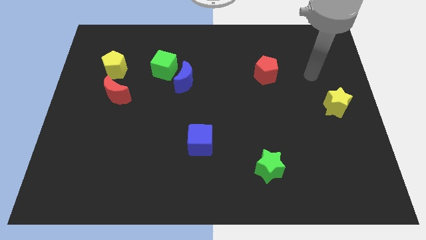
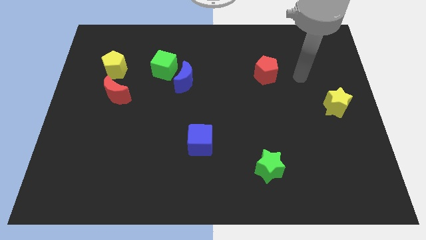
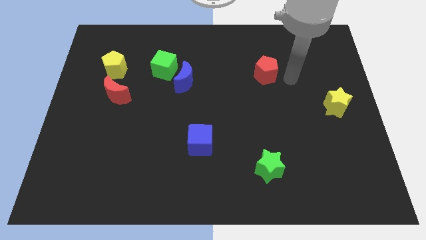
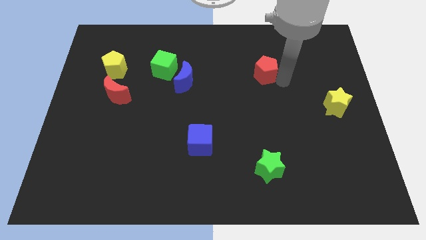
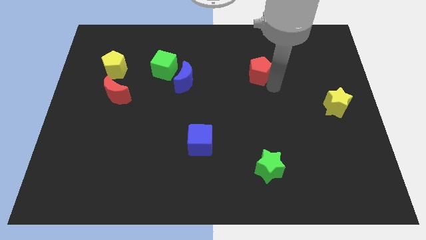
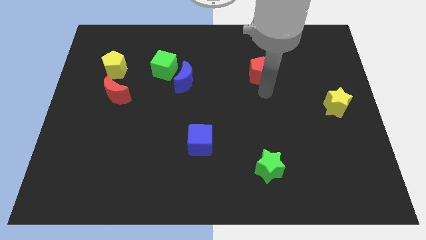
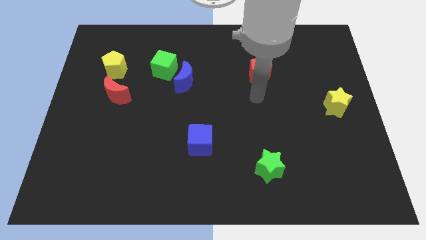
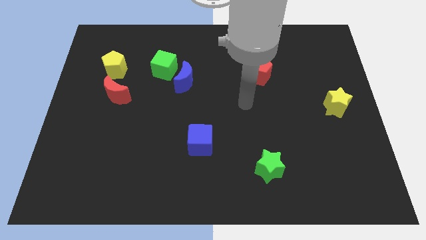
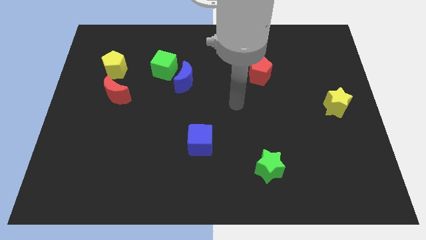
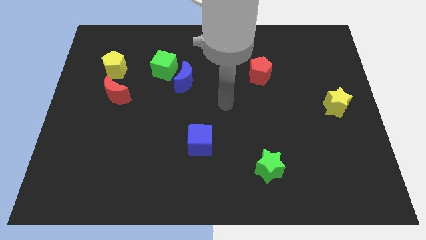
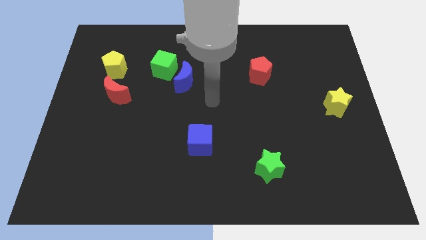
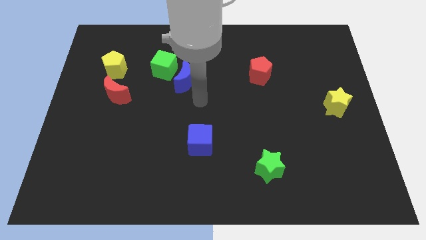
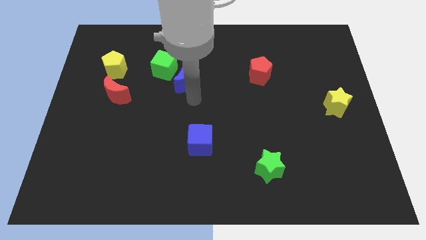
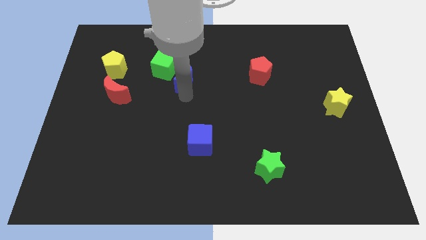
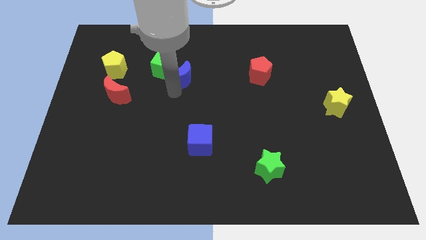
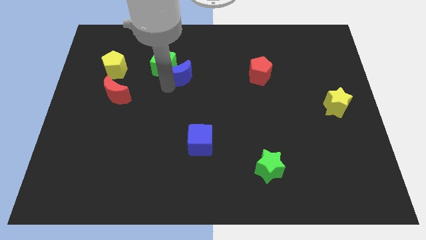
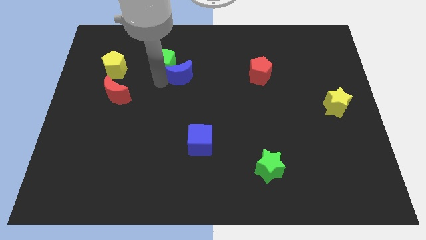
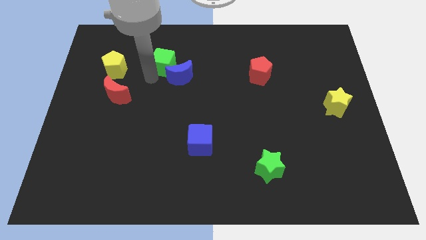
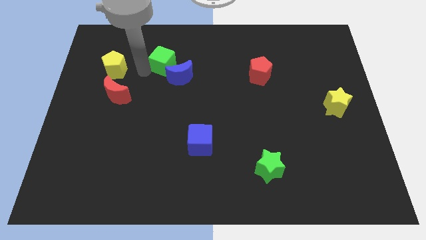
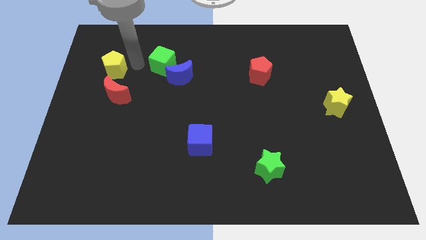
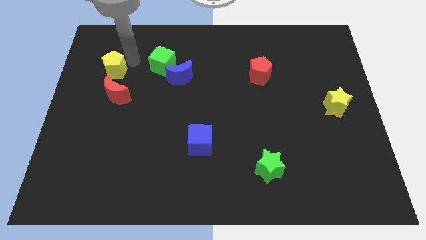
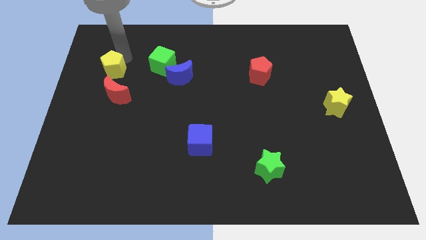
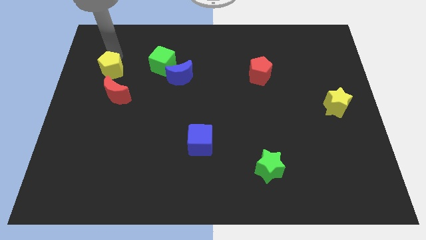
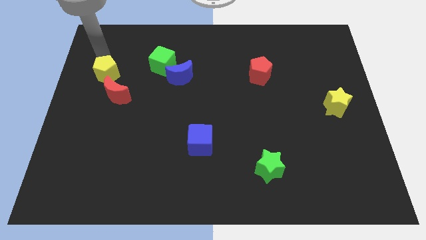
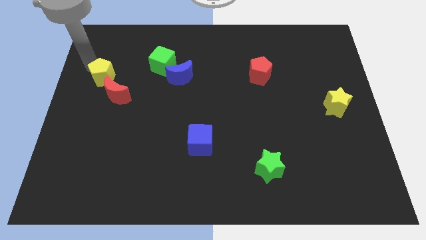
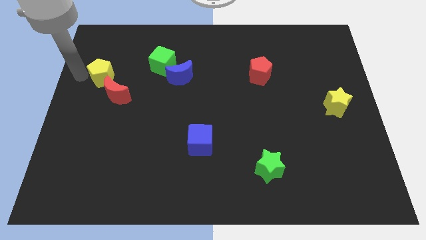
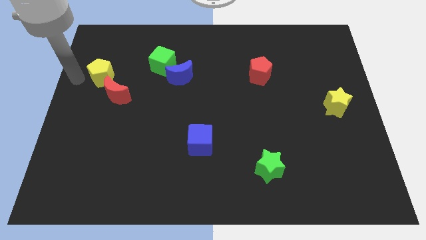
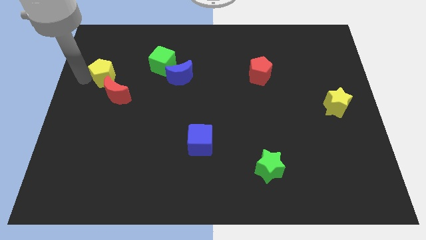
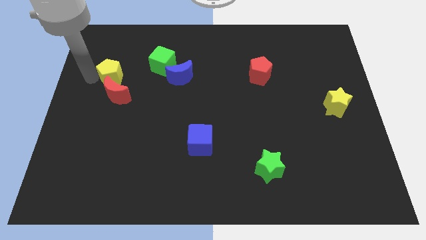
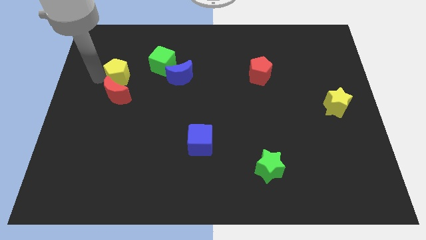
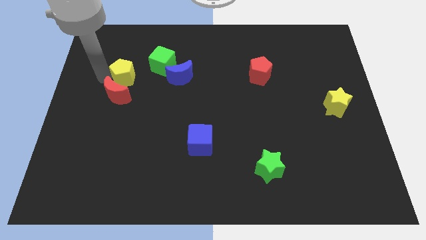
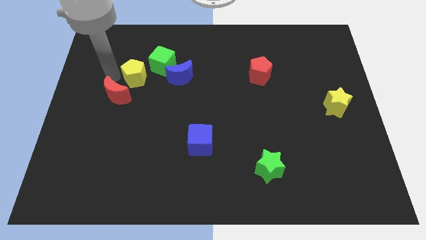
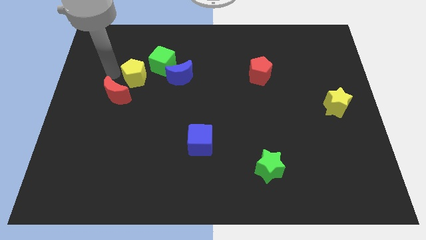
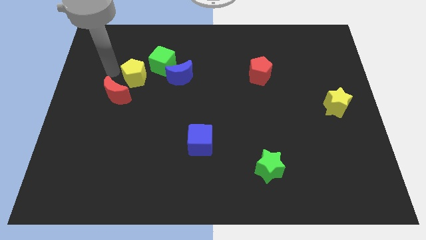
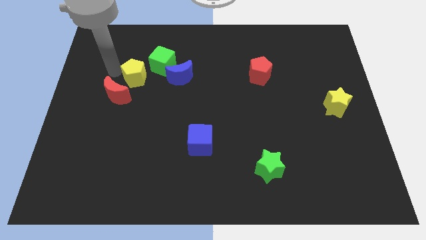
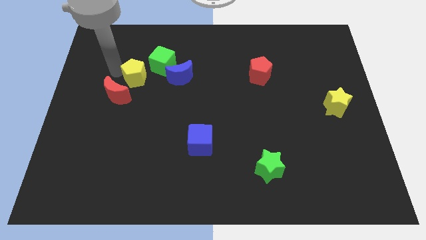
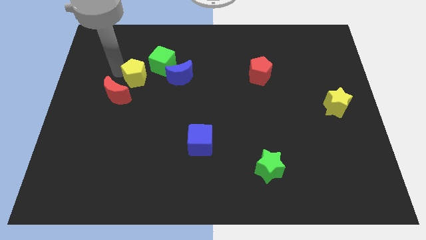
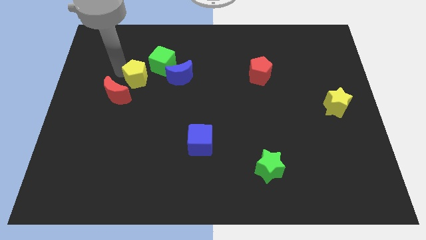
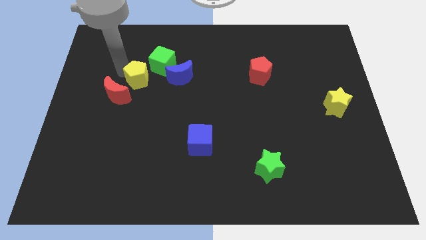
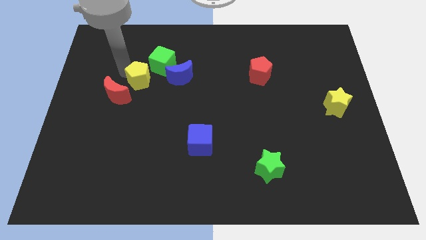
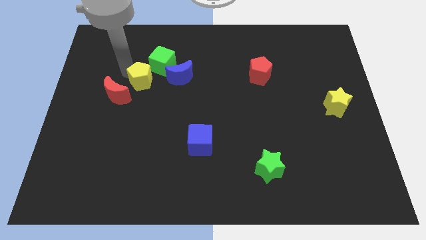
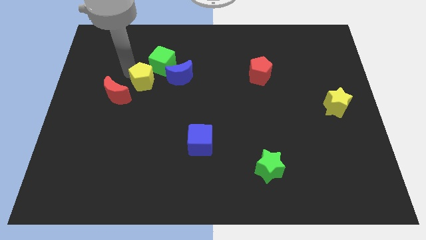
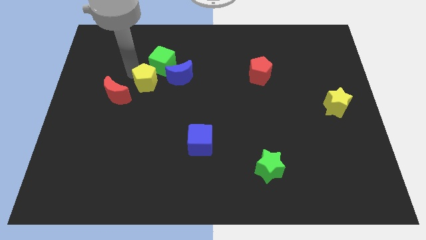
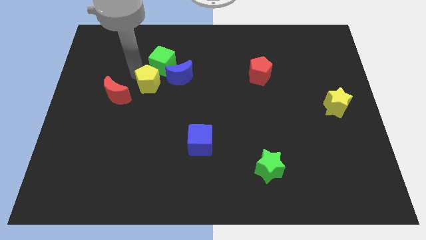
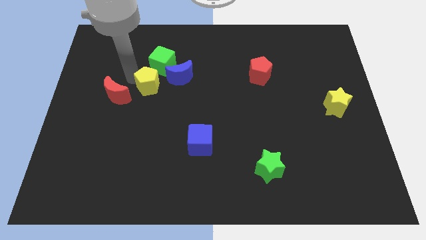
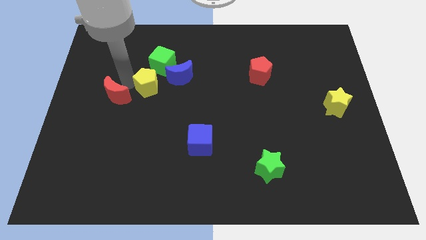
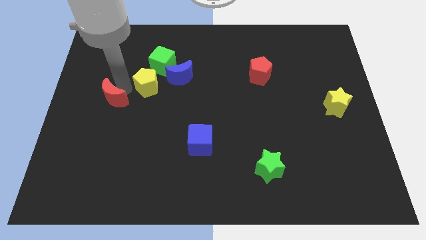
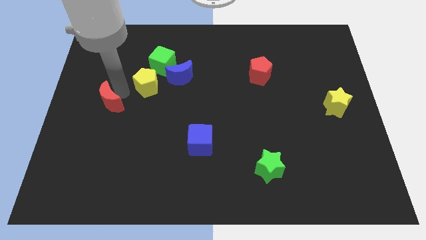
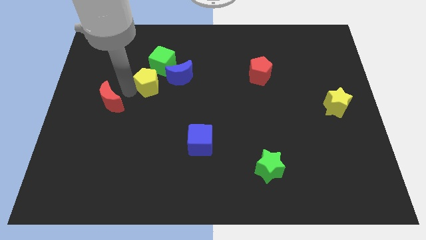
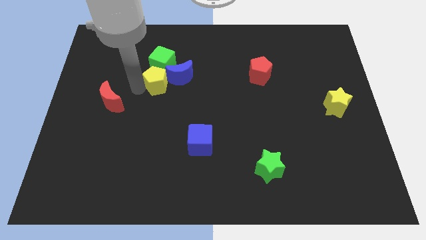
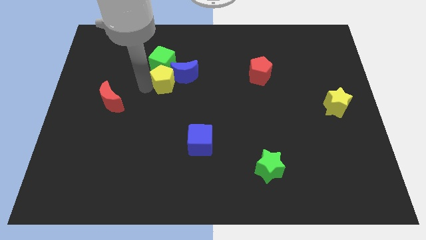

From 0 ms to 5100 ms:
move the yellow pentagon to the blue moon

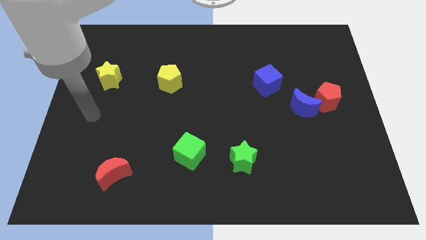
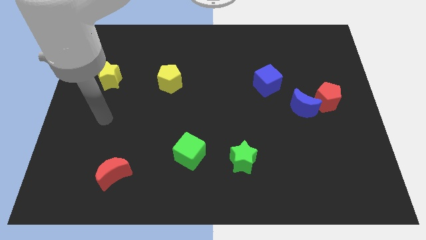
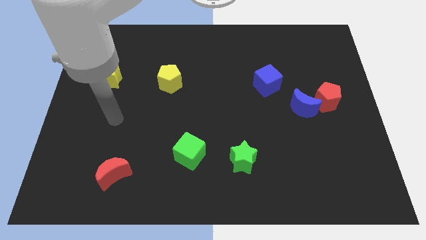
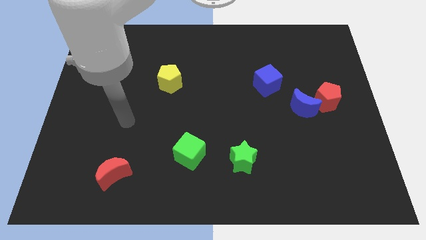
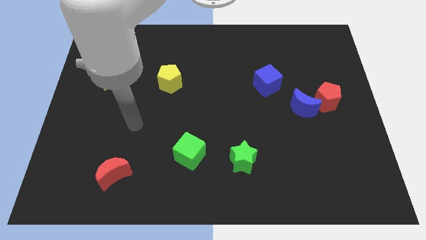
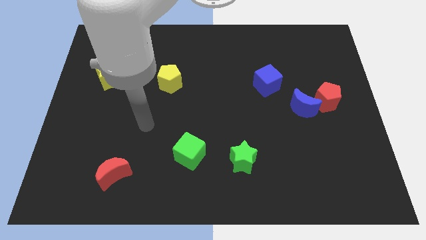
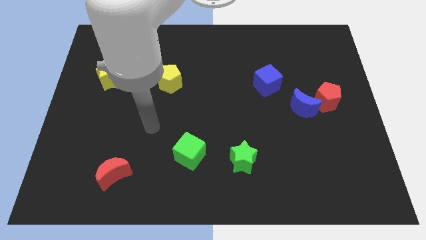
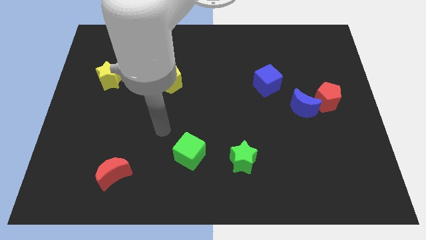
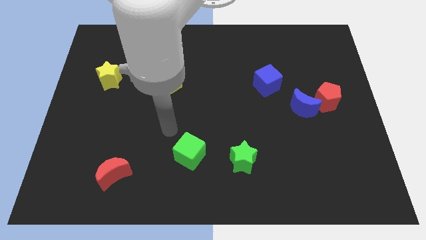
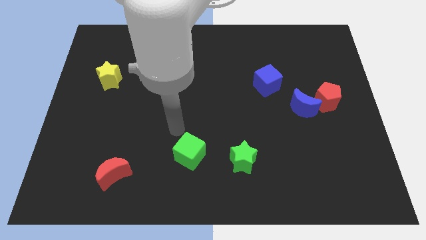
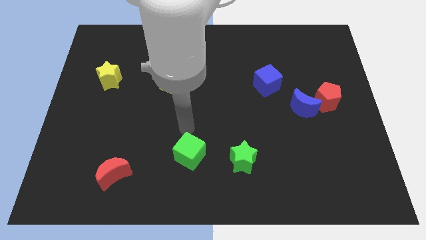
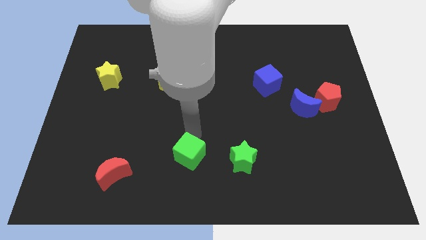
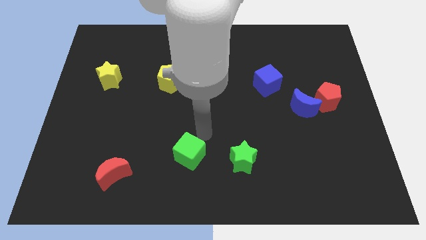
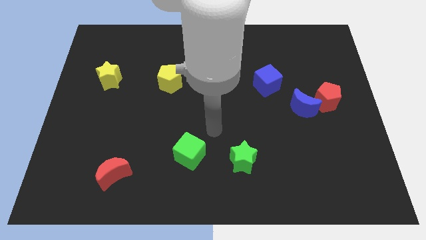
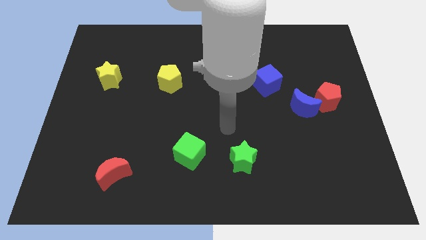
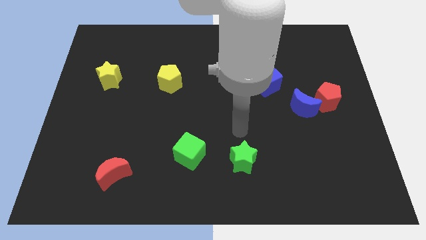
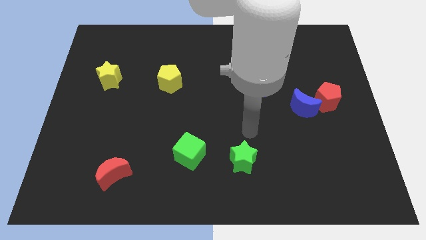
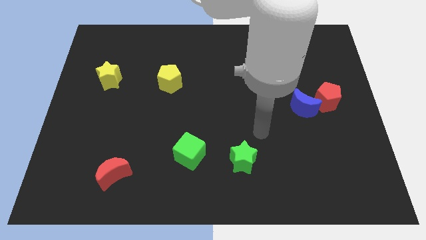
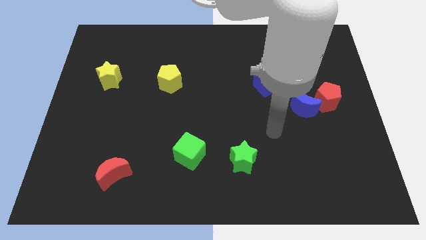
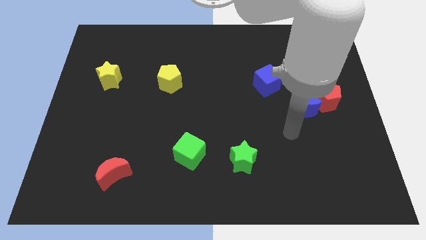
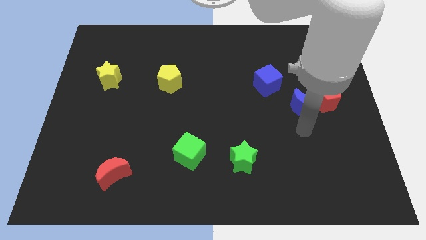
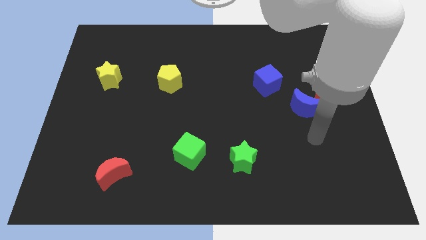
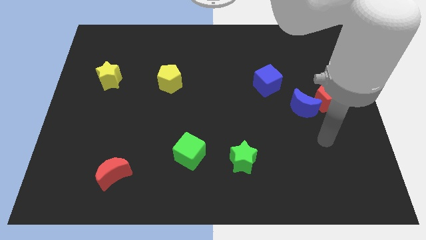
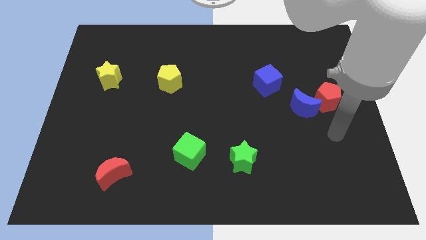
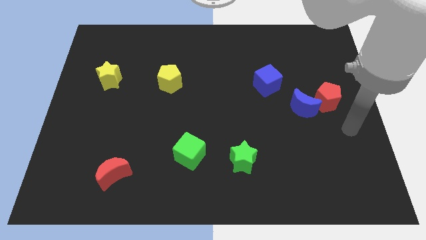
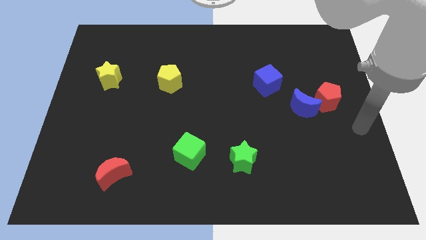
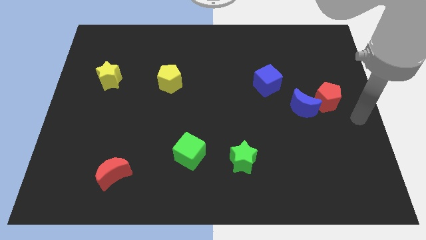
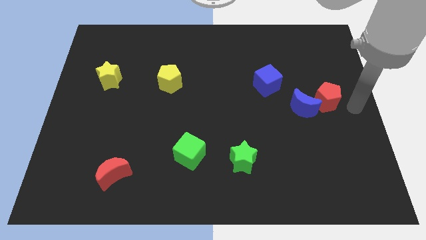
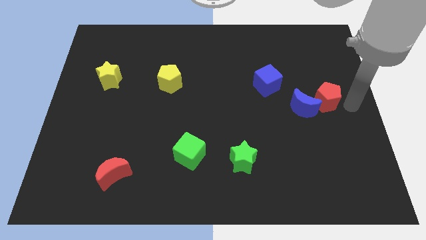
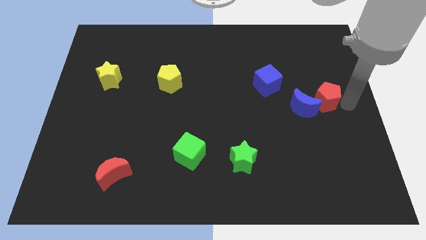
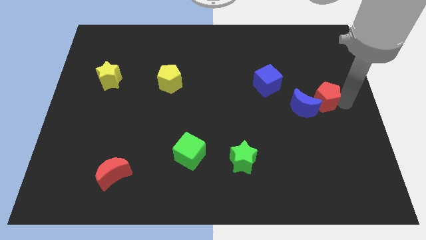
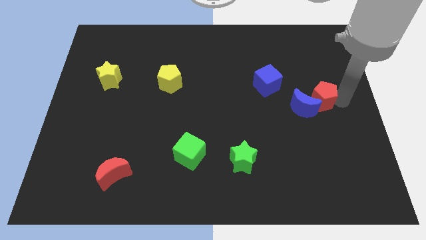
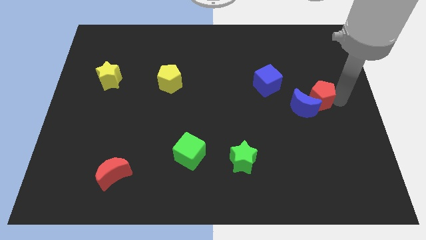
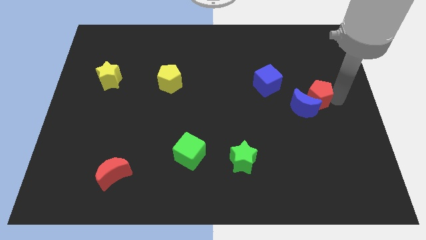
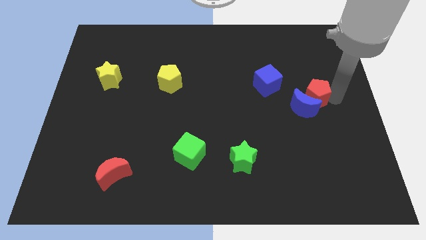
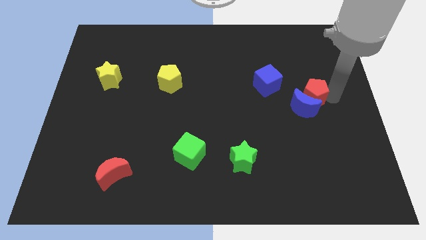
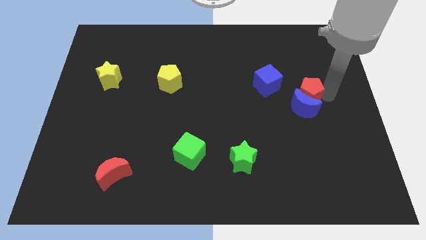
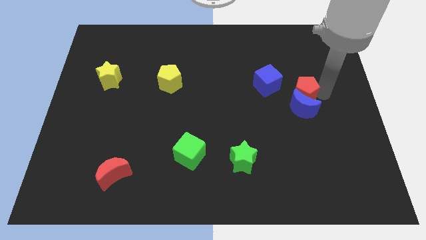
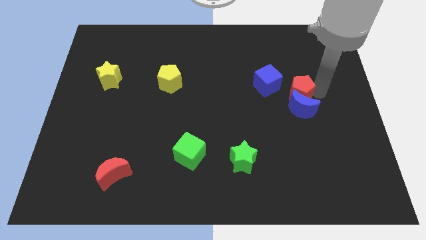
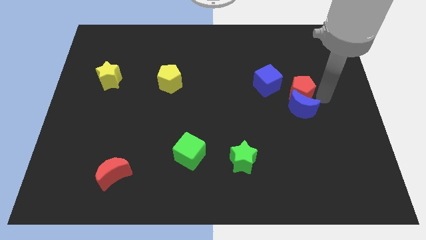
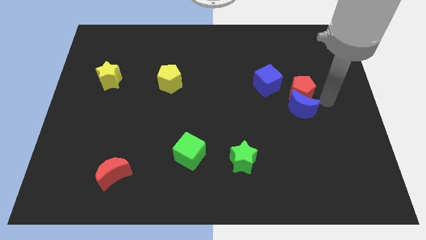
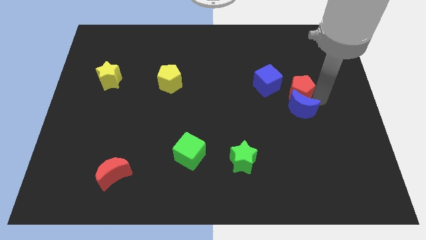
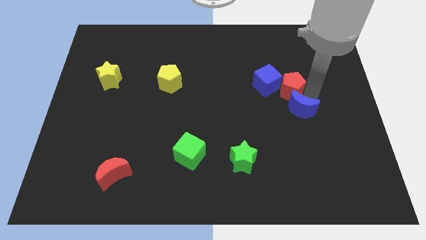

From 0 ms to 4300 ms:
slide the red pentagon to the blue cube
